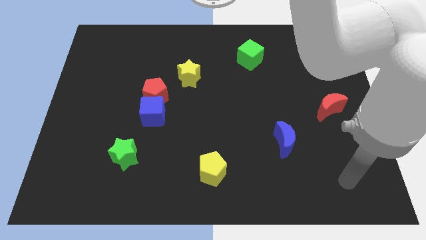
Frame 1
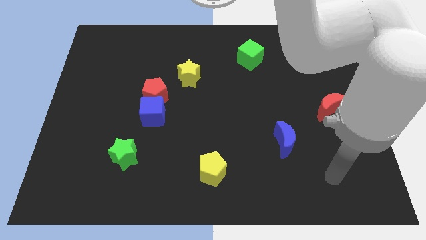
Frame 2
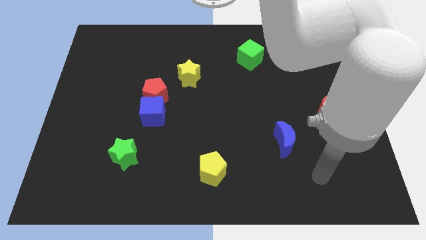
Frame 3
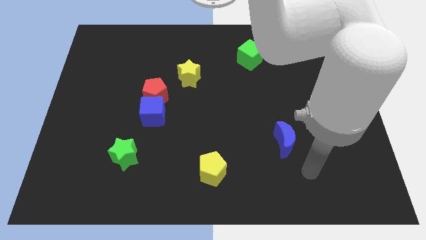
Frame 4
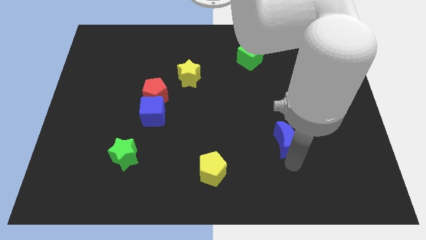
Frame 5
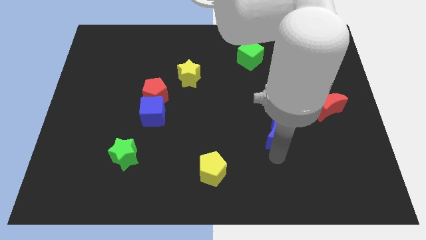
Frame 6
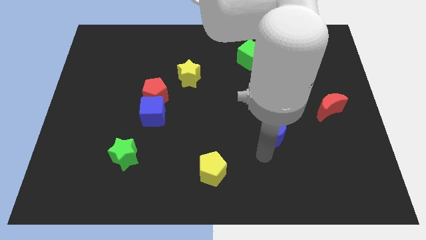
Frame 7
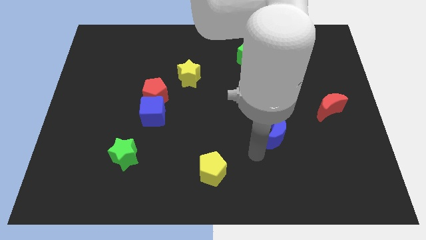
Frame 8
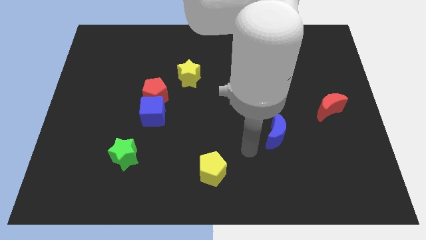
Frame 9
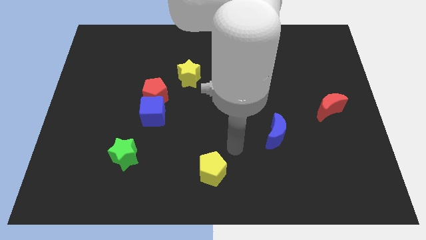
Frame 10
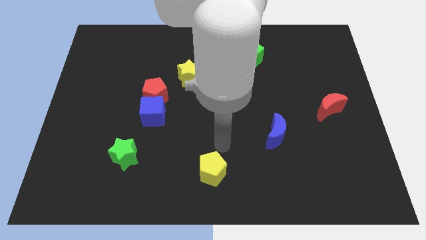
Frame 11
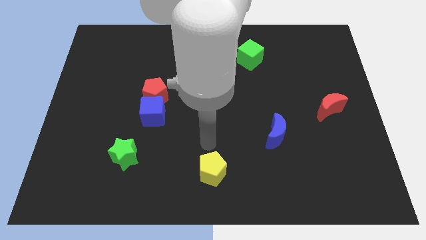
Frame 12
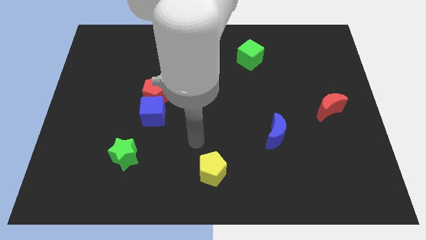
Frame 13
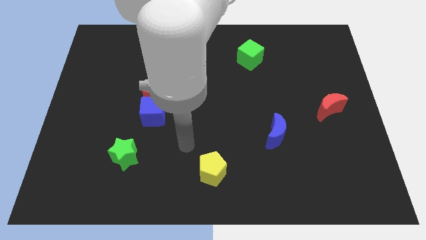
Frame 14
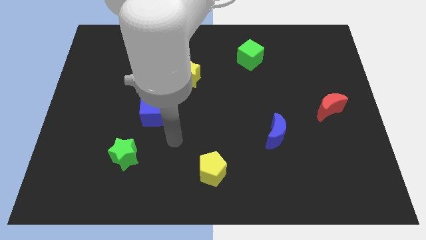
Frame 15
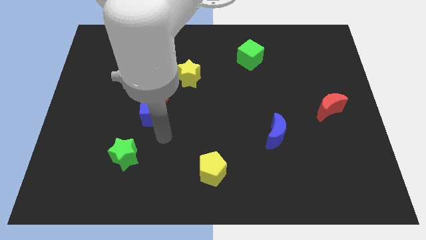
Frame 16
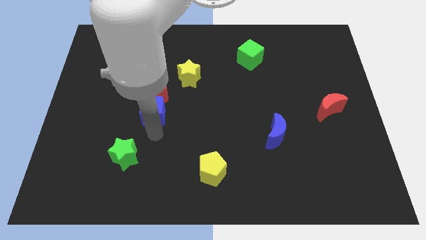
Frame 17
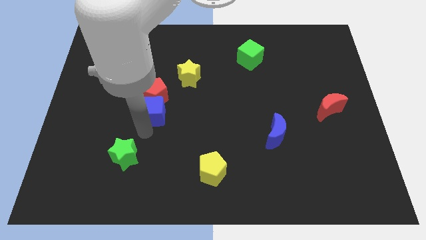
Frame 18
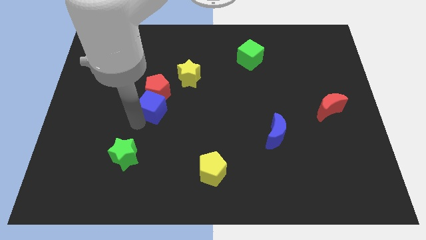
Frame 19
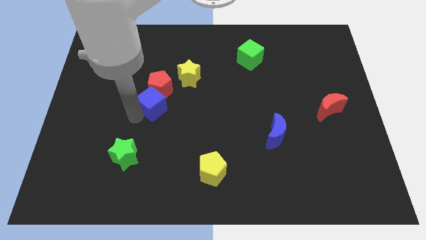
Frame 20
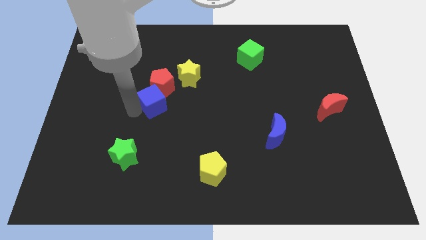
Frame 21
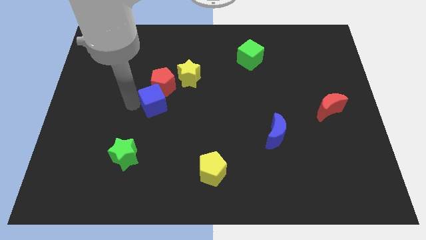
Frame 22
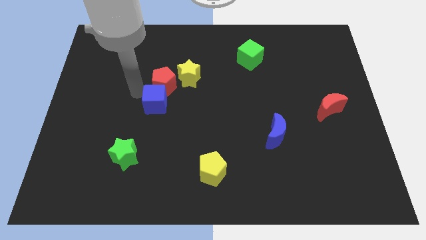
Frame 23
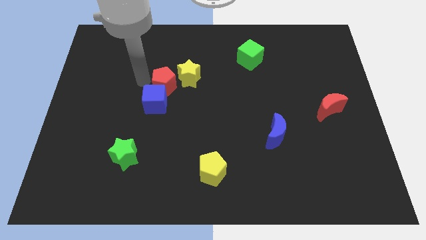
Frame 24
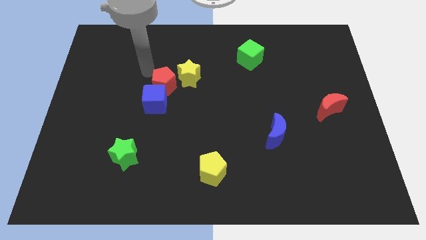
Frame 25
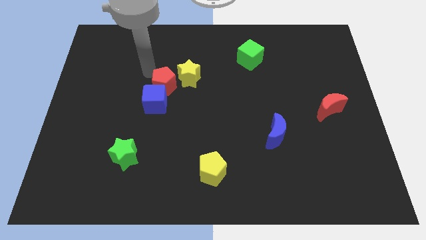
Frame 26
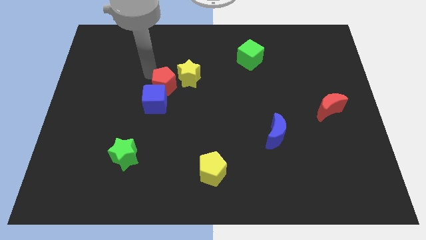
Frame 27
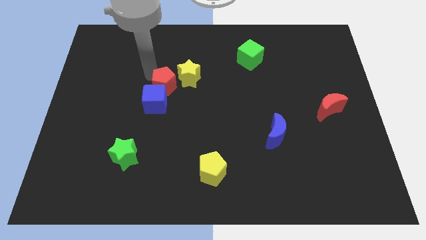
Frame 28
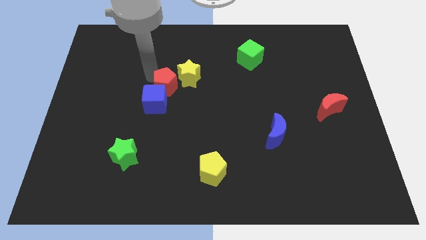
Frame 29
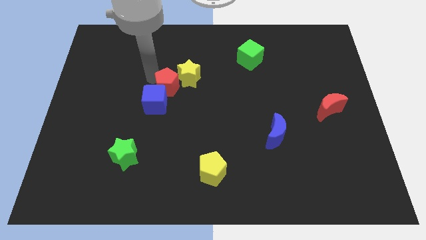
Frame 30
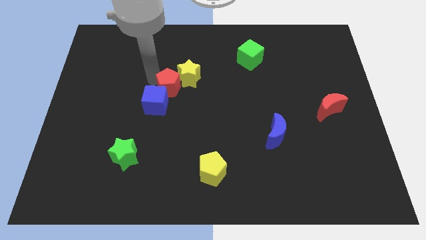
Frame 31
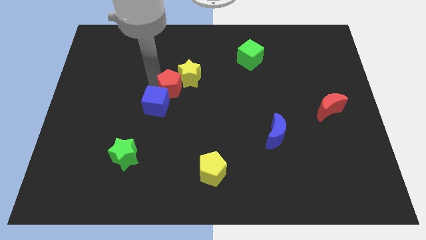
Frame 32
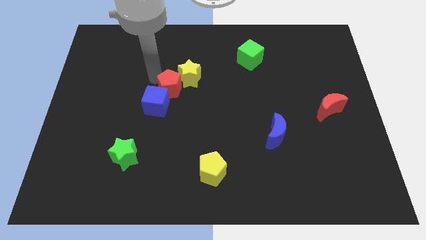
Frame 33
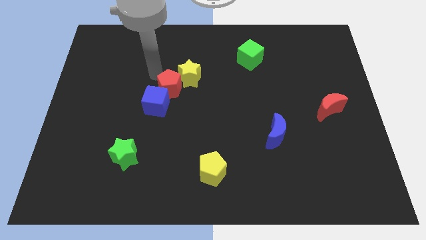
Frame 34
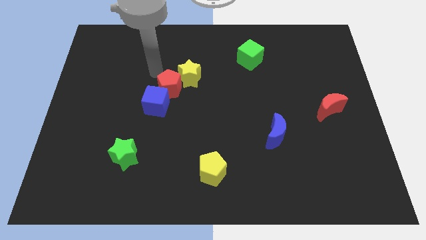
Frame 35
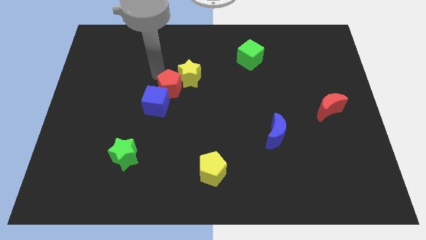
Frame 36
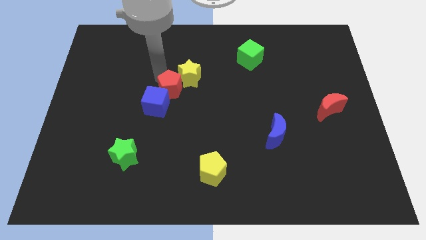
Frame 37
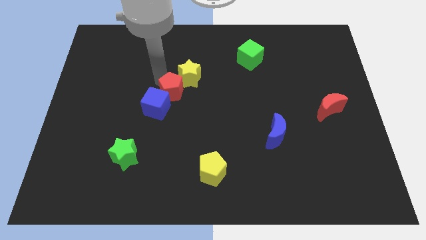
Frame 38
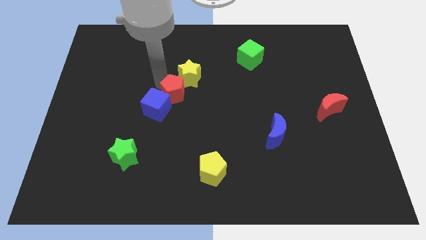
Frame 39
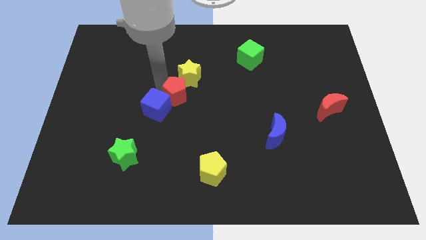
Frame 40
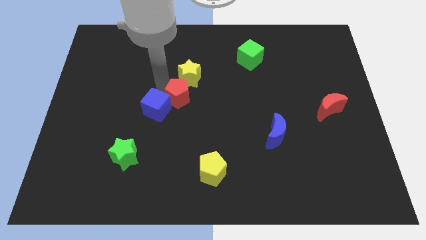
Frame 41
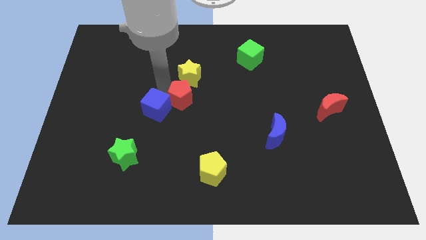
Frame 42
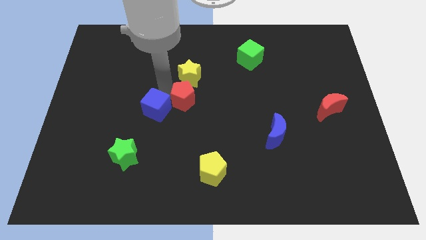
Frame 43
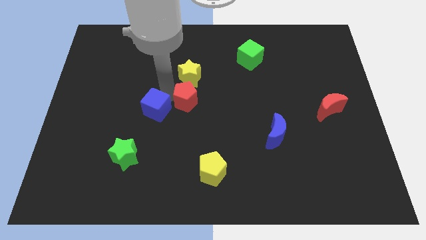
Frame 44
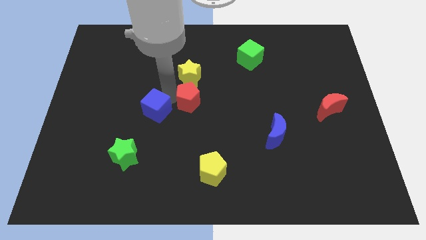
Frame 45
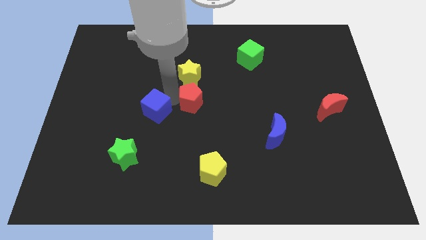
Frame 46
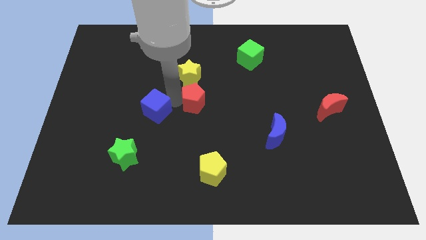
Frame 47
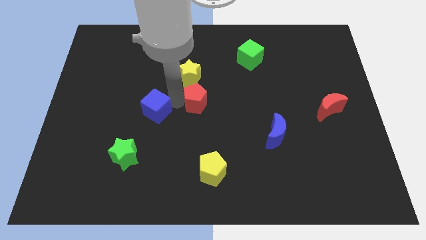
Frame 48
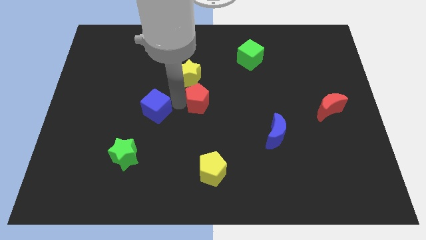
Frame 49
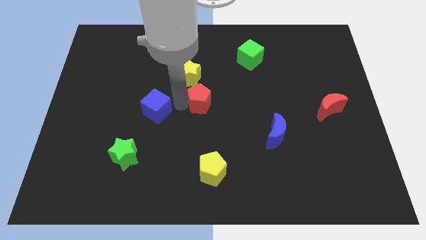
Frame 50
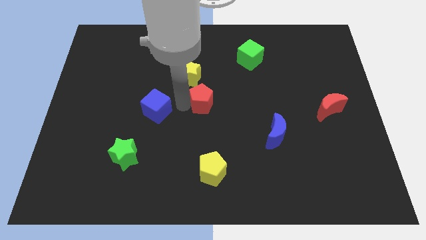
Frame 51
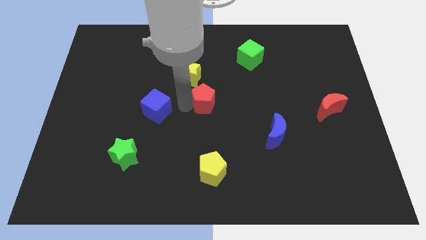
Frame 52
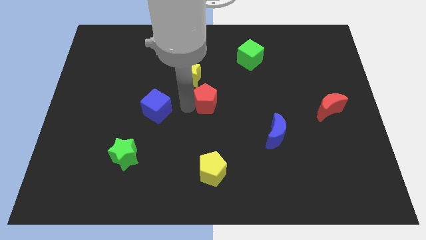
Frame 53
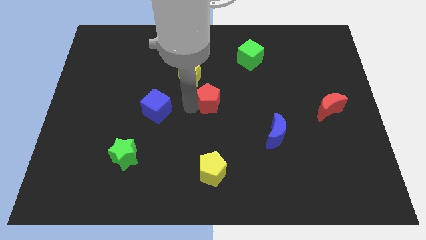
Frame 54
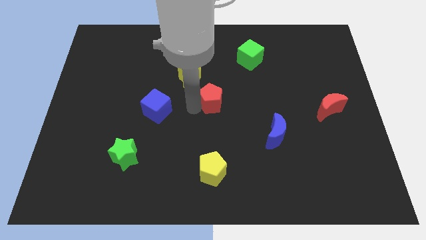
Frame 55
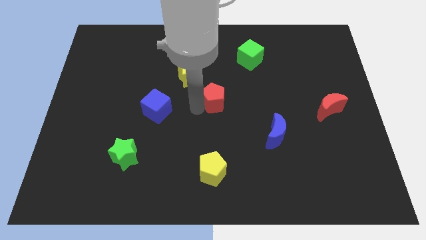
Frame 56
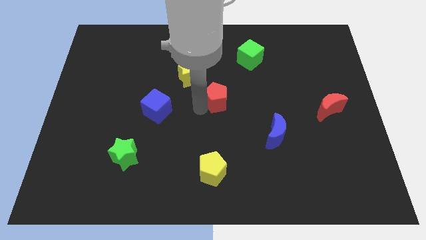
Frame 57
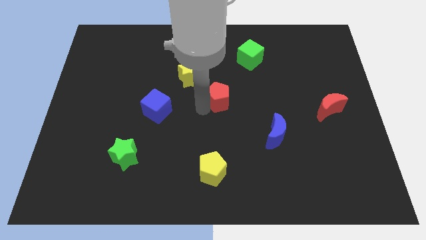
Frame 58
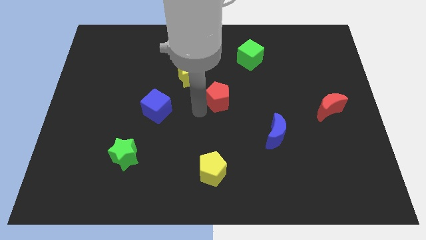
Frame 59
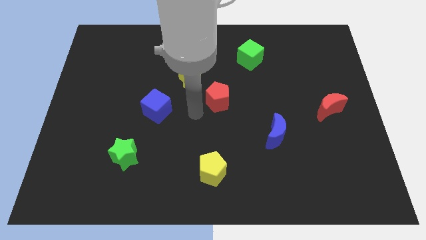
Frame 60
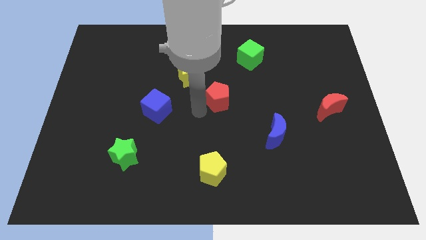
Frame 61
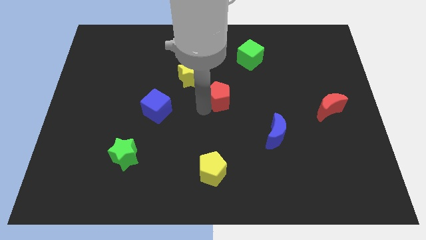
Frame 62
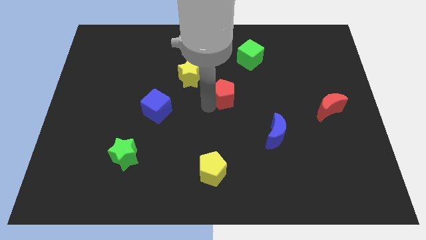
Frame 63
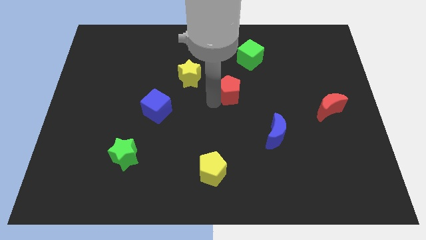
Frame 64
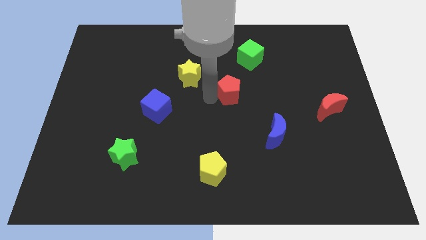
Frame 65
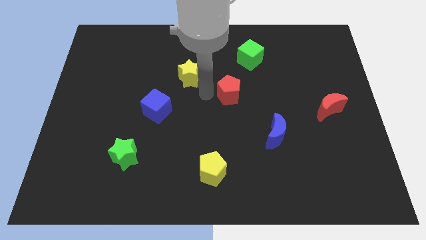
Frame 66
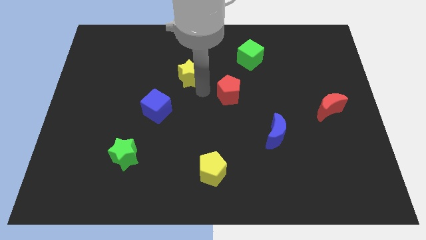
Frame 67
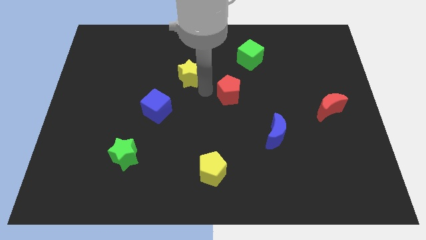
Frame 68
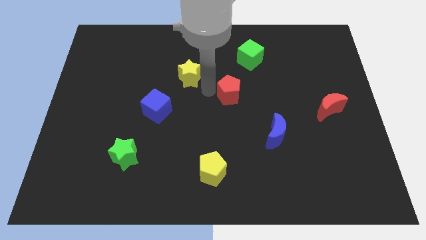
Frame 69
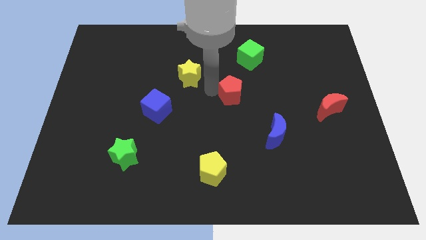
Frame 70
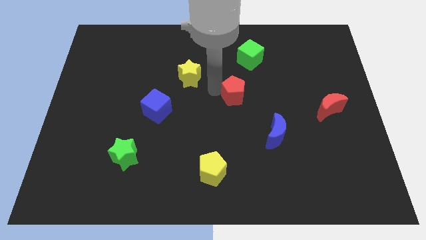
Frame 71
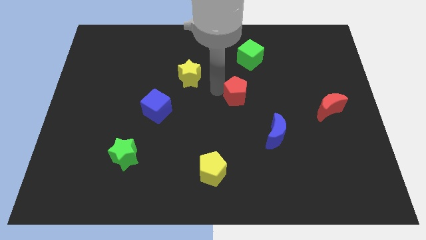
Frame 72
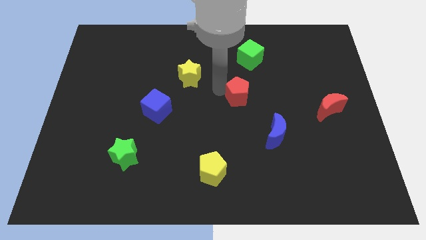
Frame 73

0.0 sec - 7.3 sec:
slide the red pentagon right

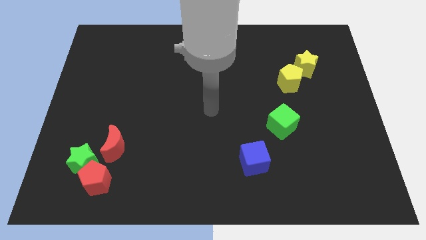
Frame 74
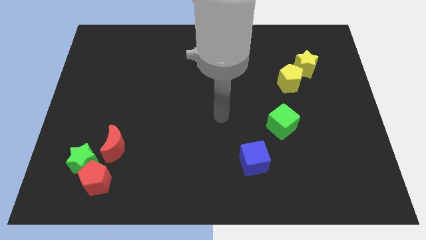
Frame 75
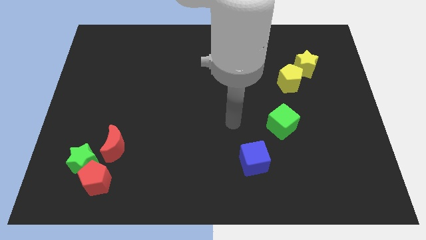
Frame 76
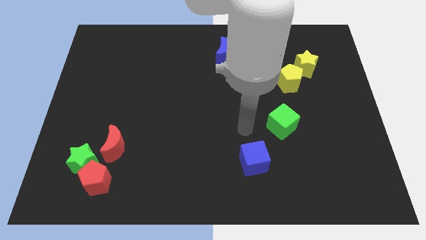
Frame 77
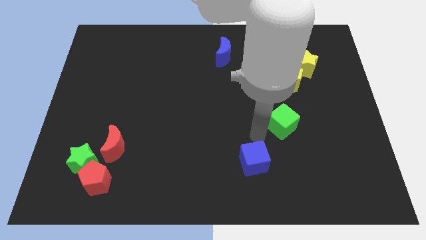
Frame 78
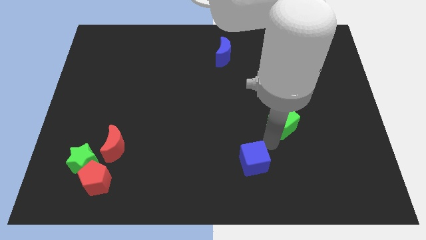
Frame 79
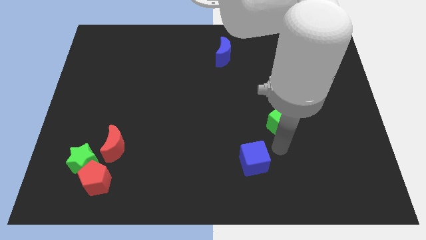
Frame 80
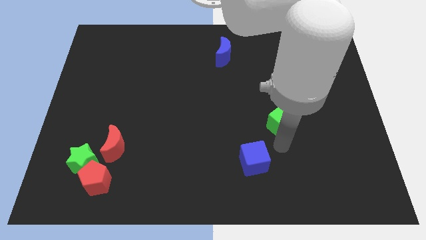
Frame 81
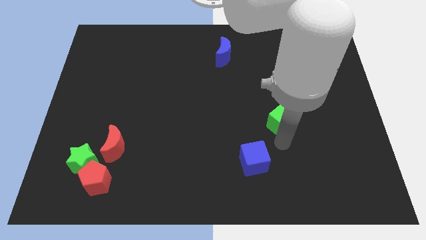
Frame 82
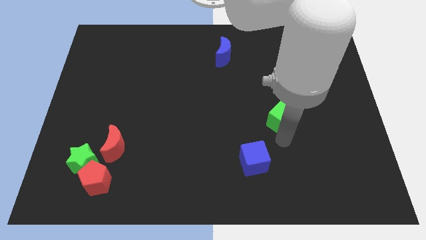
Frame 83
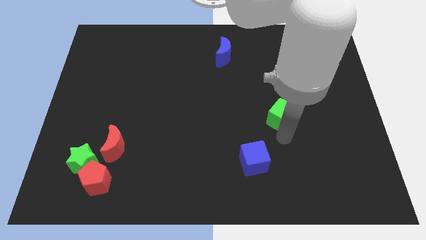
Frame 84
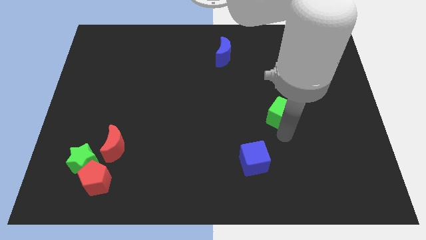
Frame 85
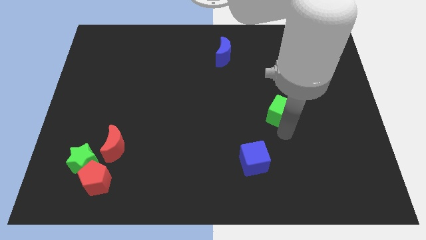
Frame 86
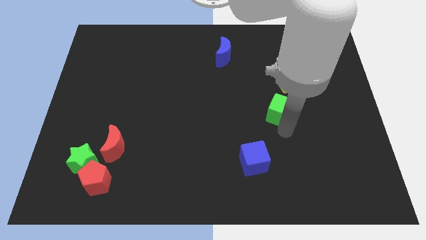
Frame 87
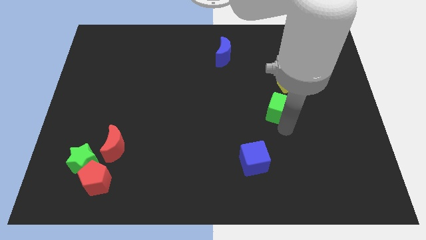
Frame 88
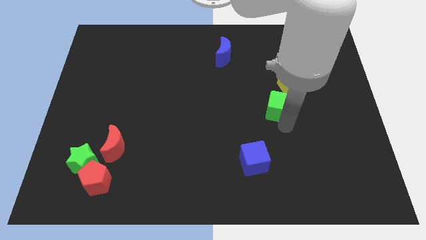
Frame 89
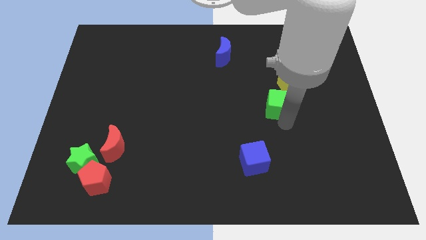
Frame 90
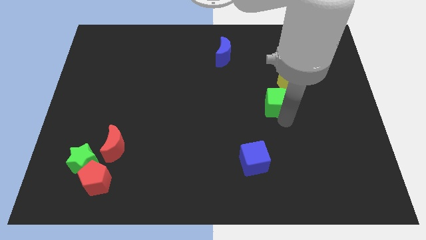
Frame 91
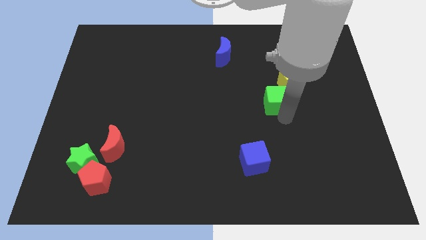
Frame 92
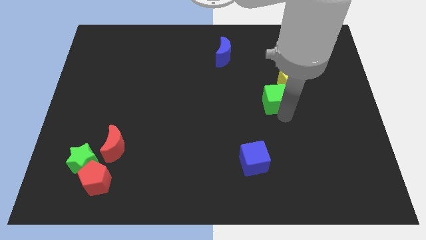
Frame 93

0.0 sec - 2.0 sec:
push the green cube slightly up
